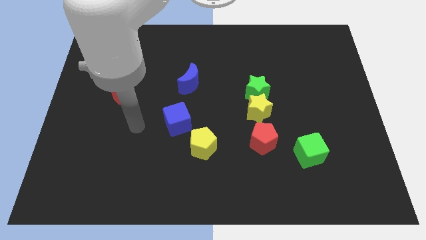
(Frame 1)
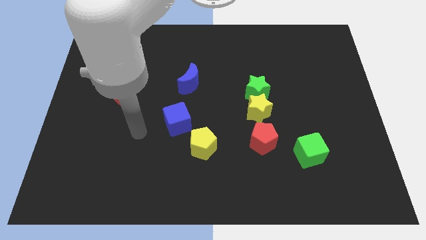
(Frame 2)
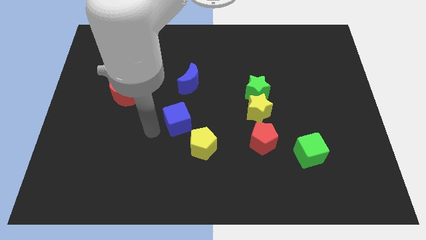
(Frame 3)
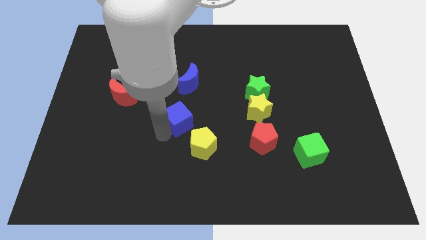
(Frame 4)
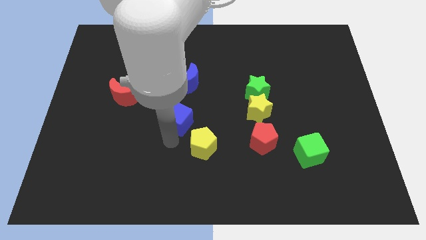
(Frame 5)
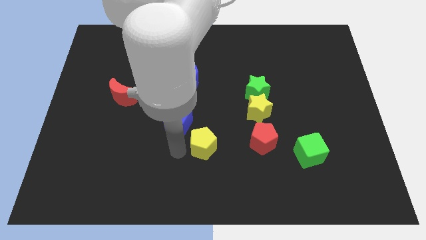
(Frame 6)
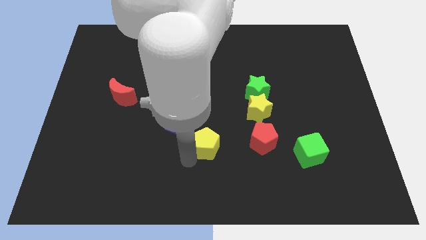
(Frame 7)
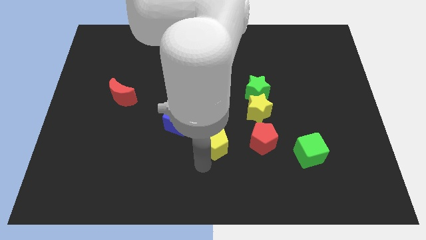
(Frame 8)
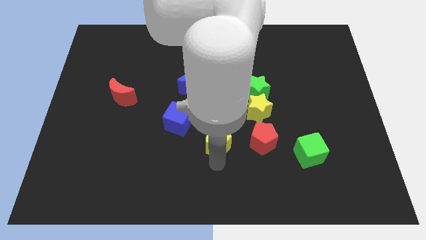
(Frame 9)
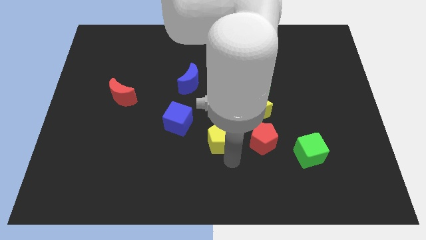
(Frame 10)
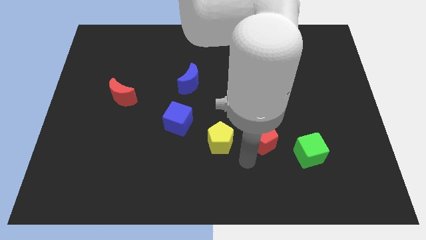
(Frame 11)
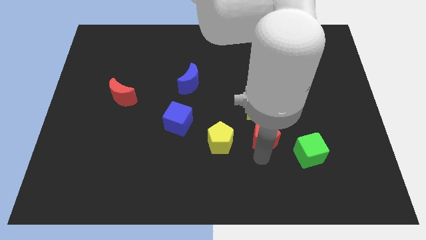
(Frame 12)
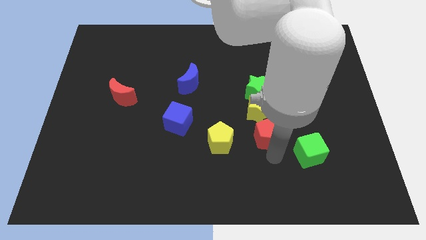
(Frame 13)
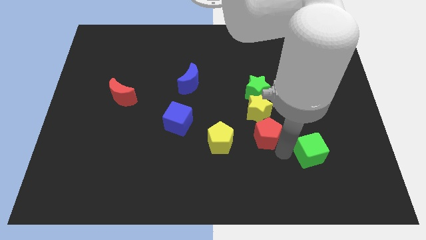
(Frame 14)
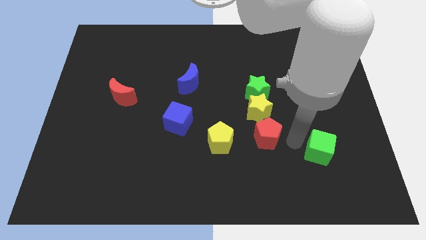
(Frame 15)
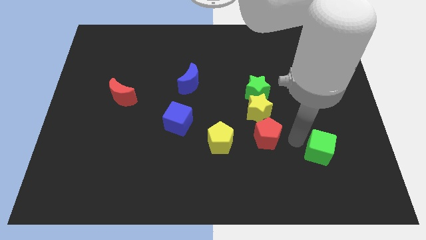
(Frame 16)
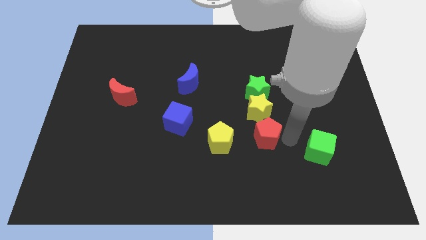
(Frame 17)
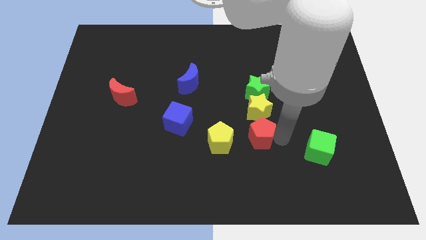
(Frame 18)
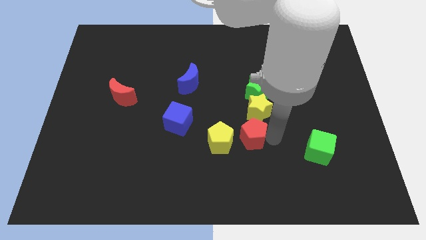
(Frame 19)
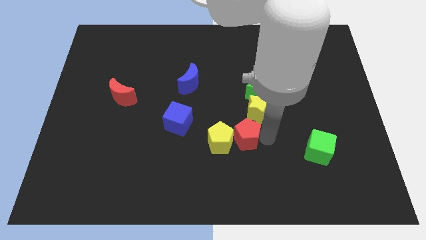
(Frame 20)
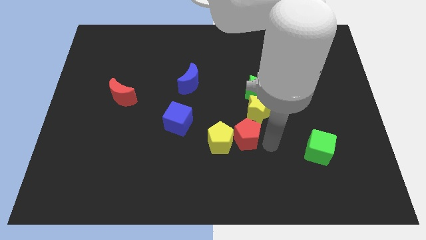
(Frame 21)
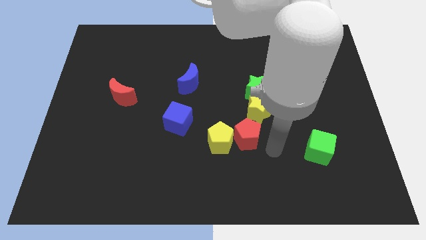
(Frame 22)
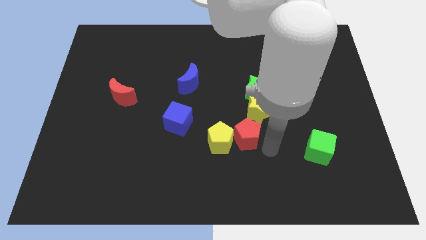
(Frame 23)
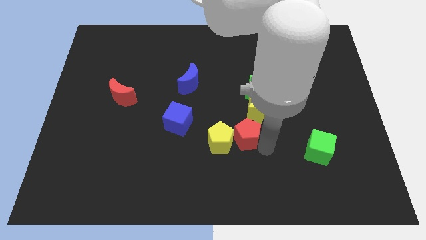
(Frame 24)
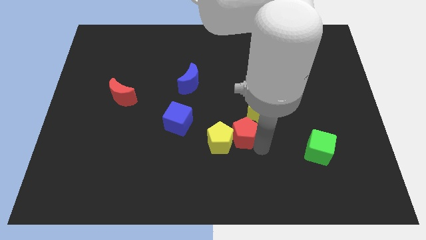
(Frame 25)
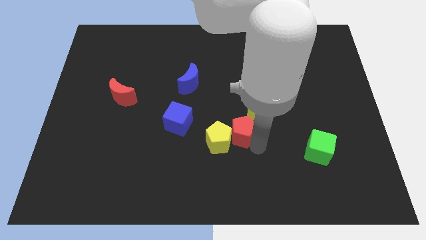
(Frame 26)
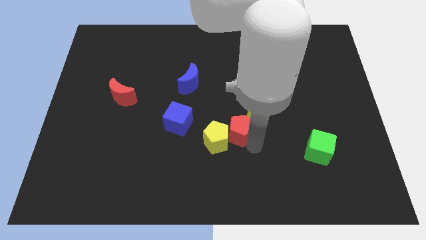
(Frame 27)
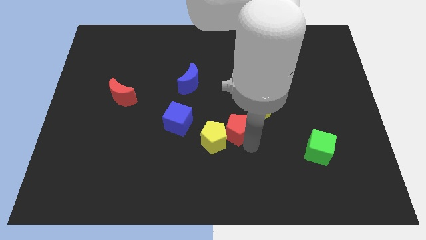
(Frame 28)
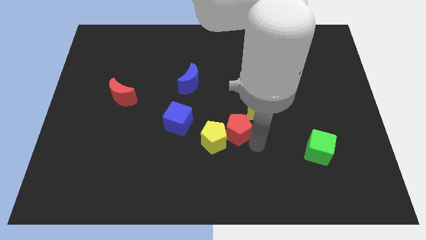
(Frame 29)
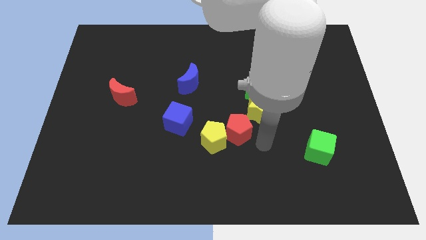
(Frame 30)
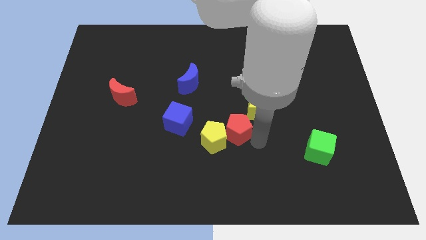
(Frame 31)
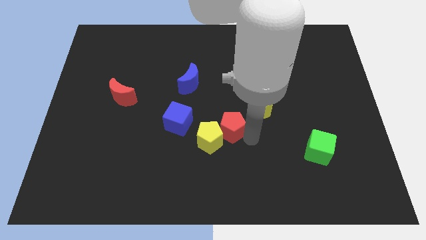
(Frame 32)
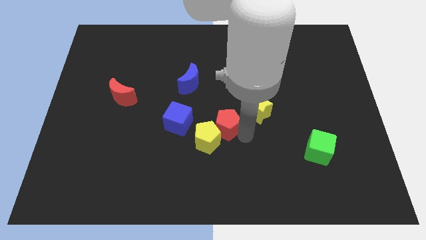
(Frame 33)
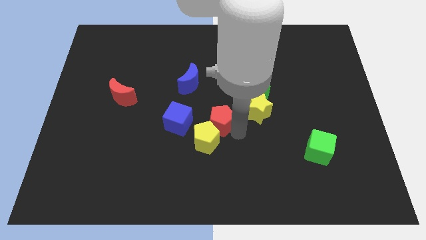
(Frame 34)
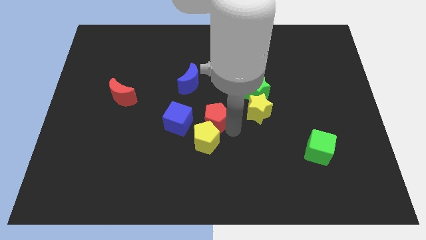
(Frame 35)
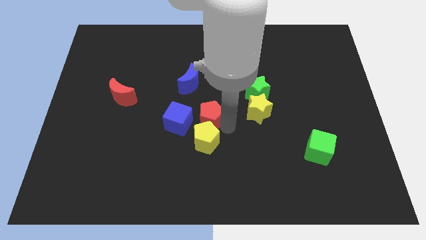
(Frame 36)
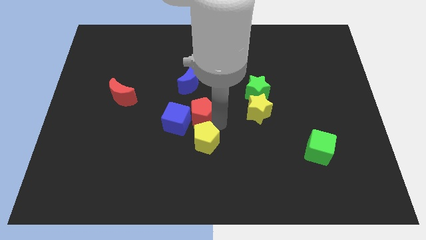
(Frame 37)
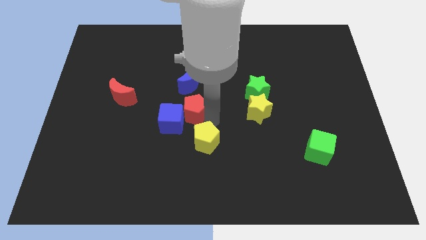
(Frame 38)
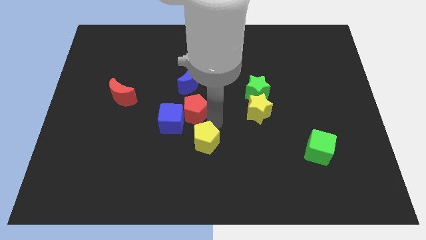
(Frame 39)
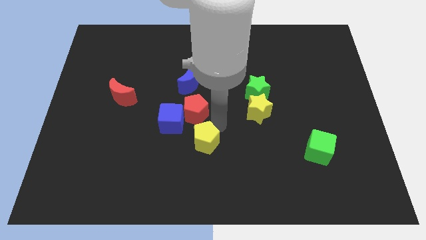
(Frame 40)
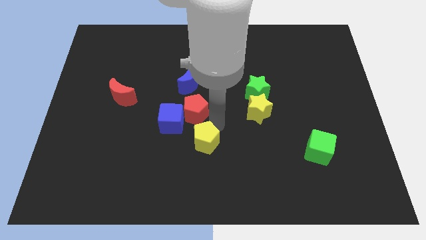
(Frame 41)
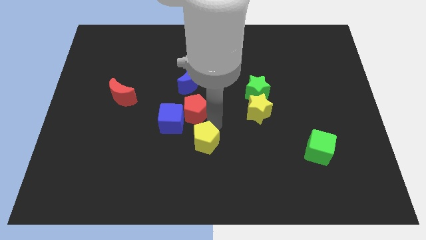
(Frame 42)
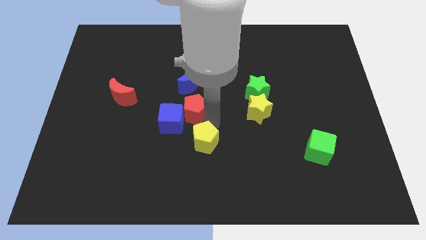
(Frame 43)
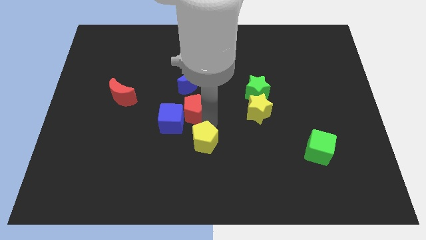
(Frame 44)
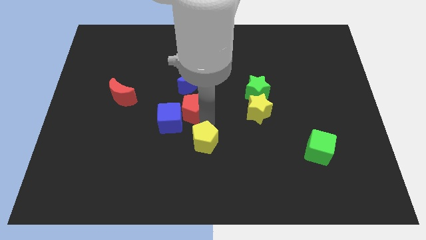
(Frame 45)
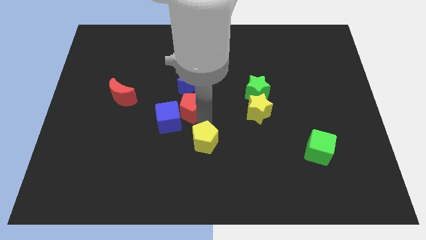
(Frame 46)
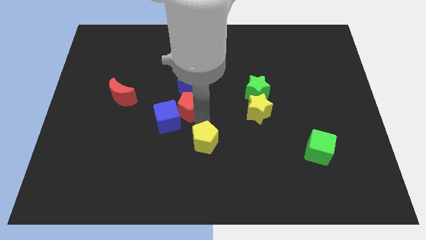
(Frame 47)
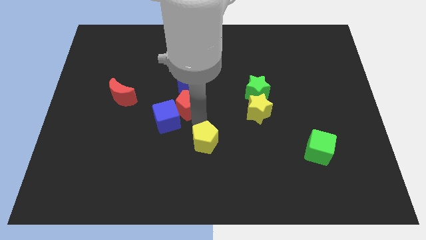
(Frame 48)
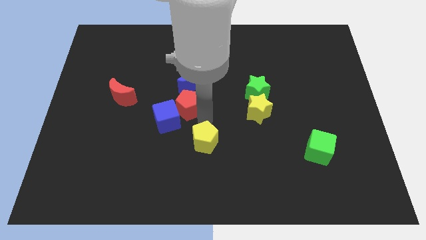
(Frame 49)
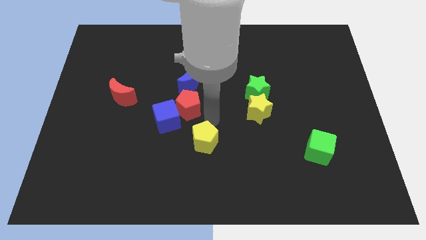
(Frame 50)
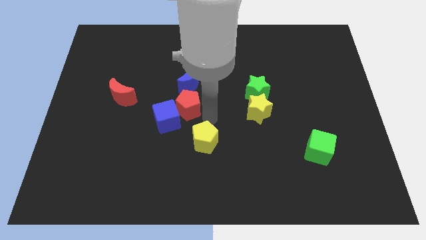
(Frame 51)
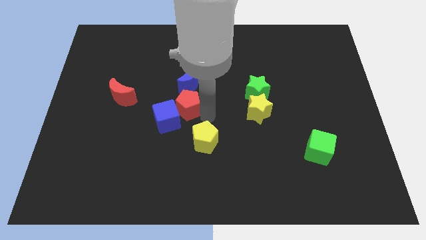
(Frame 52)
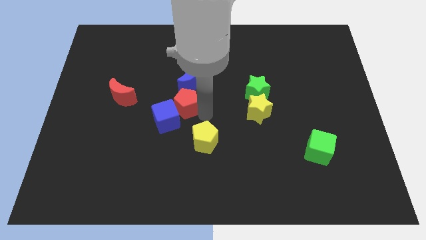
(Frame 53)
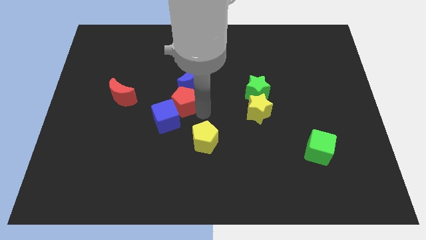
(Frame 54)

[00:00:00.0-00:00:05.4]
move the red pentagon just right of the red moon
